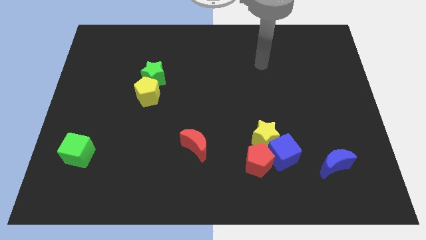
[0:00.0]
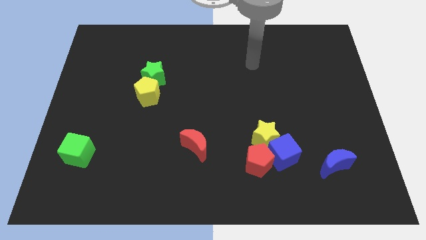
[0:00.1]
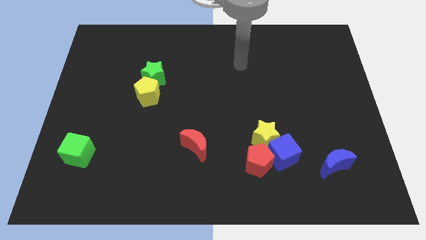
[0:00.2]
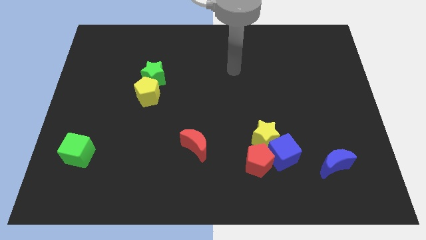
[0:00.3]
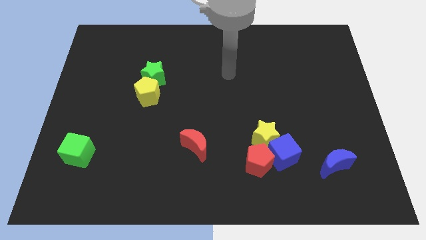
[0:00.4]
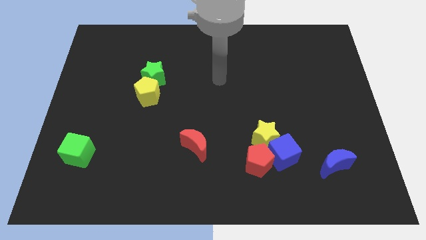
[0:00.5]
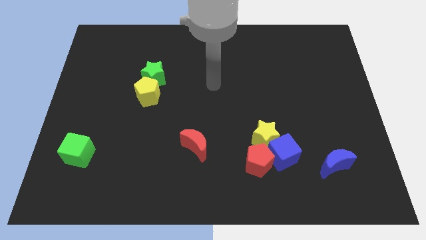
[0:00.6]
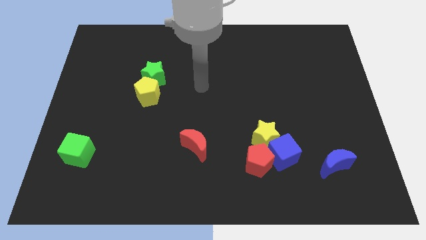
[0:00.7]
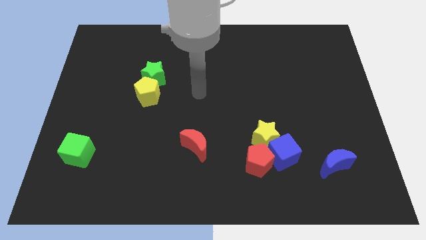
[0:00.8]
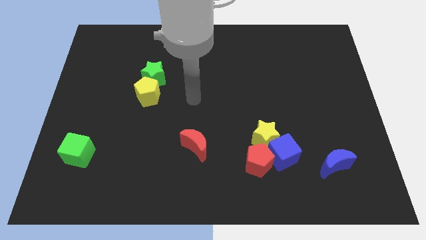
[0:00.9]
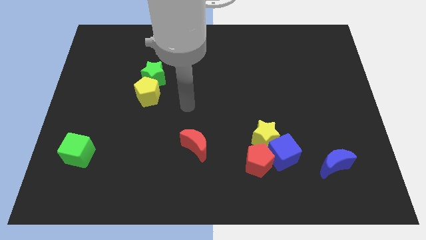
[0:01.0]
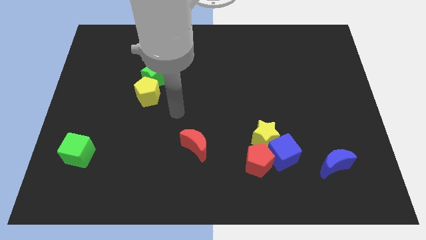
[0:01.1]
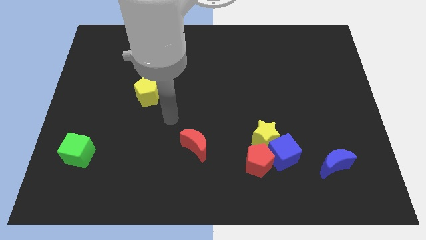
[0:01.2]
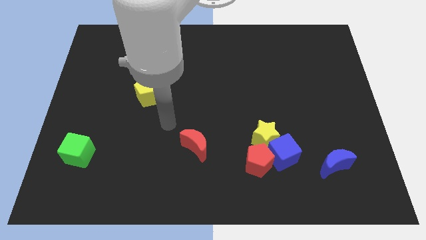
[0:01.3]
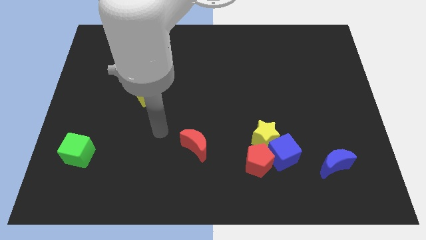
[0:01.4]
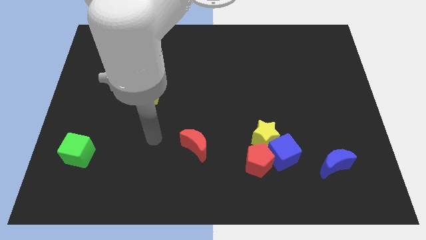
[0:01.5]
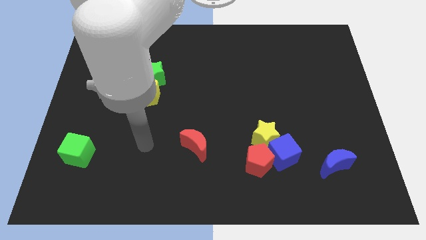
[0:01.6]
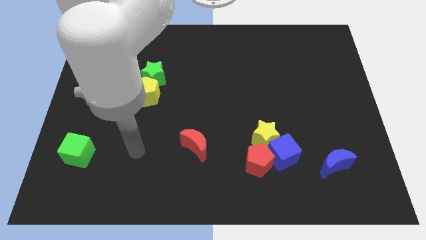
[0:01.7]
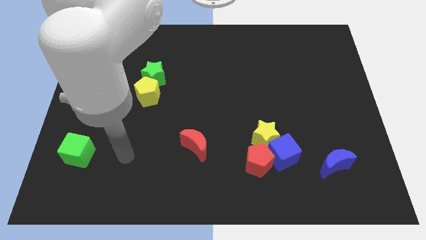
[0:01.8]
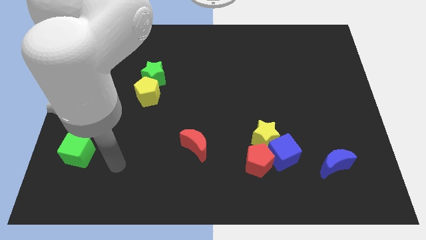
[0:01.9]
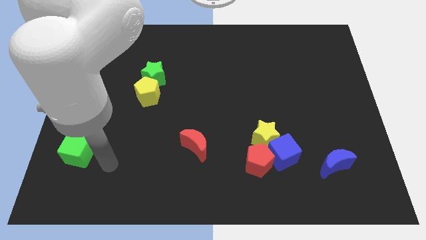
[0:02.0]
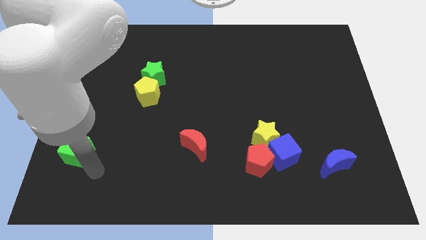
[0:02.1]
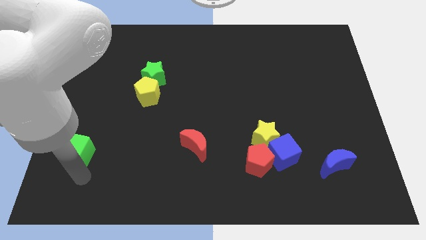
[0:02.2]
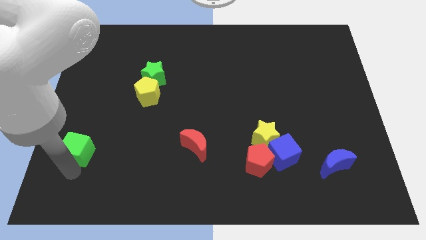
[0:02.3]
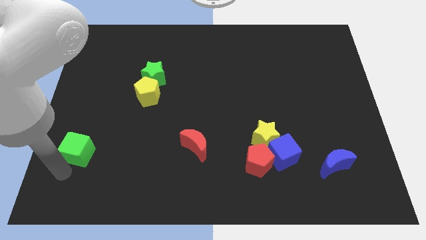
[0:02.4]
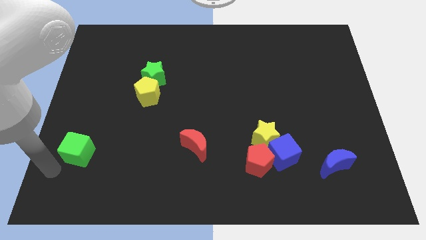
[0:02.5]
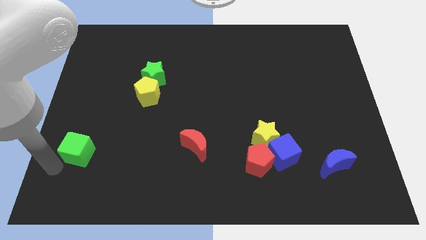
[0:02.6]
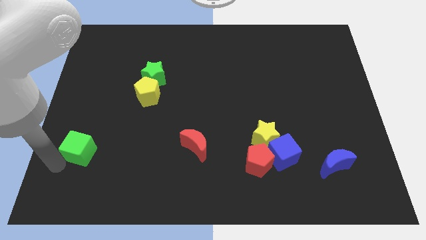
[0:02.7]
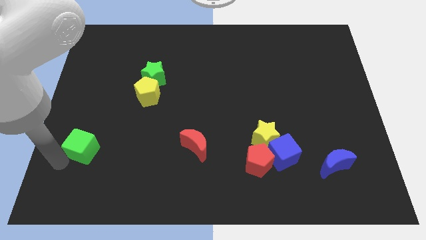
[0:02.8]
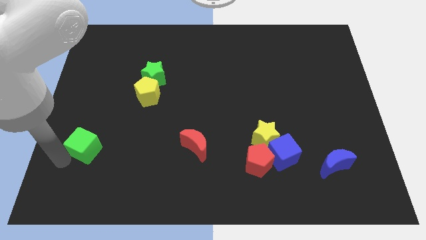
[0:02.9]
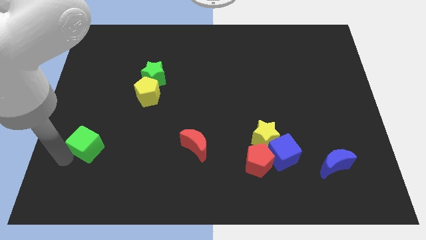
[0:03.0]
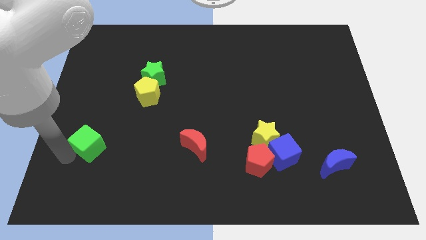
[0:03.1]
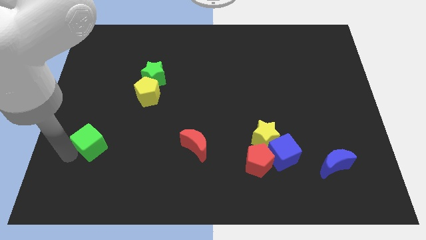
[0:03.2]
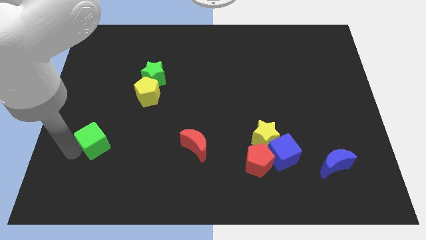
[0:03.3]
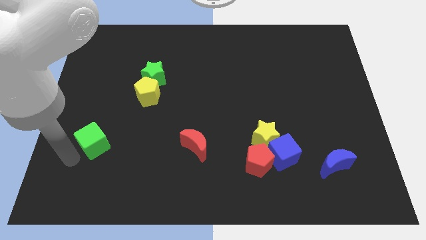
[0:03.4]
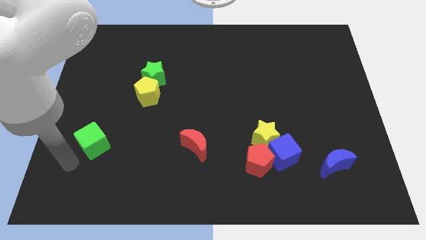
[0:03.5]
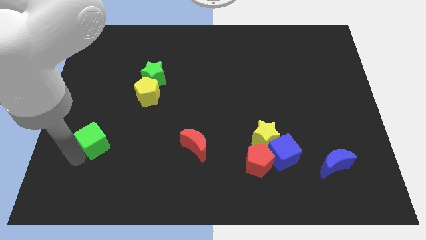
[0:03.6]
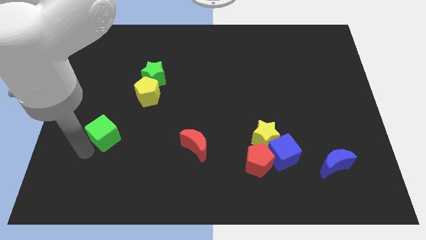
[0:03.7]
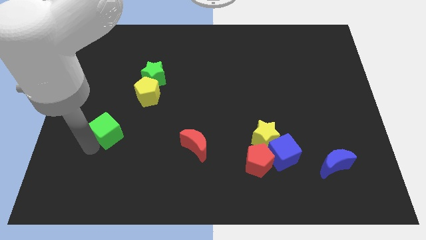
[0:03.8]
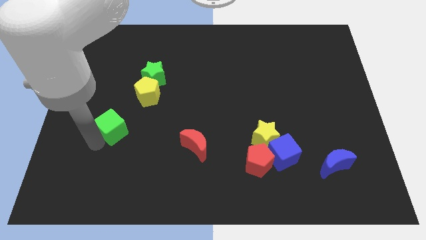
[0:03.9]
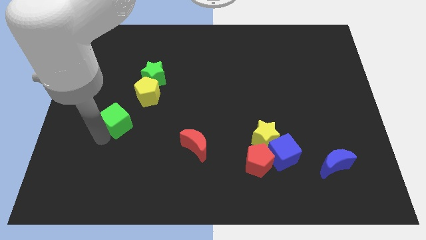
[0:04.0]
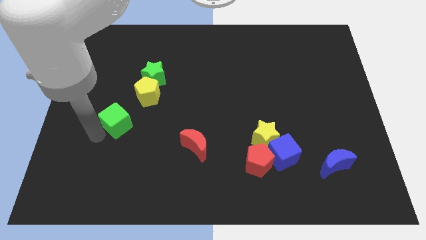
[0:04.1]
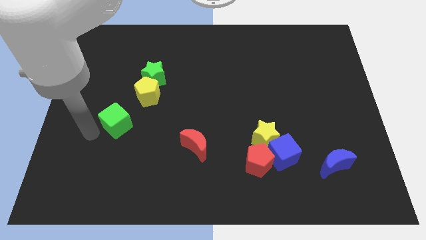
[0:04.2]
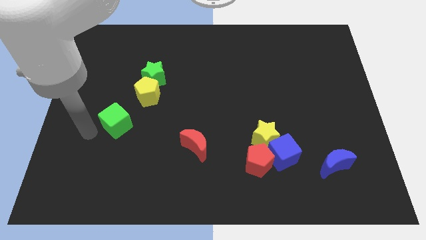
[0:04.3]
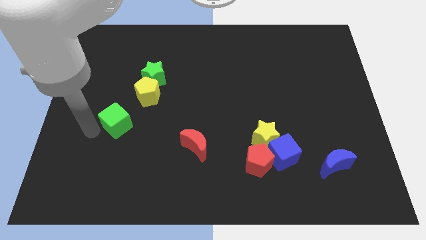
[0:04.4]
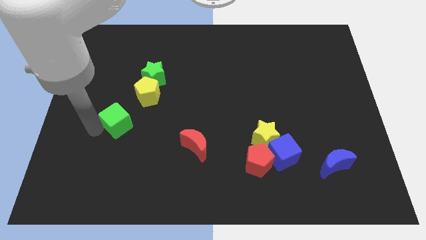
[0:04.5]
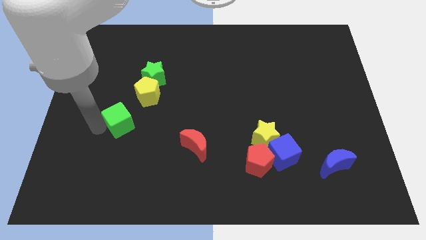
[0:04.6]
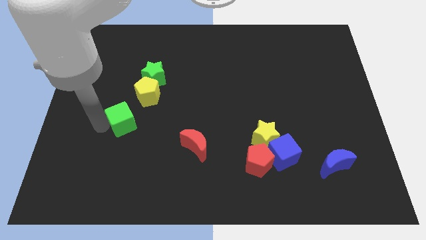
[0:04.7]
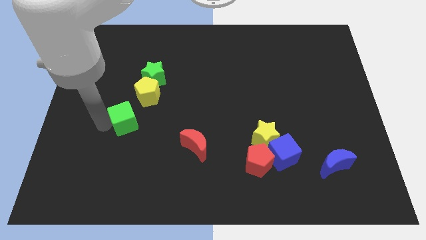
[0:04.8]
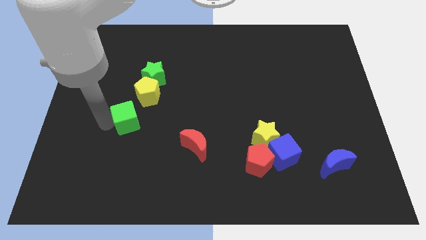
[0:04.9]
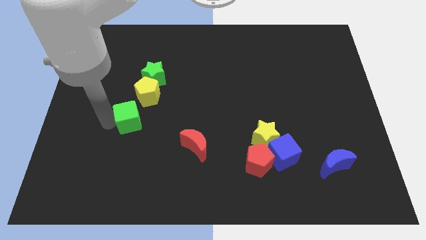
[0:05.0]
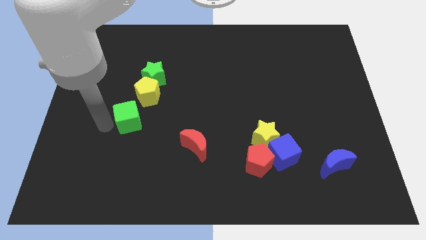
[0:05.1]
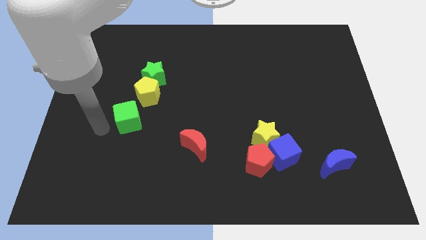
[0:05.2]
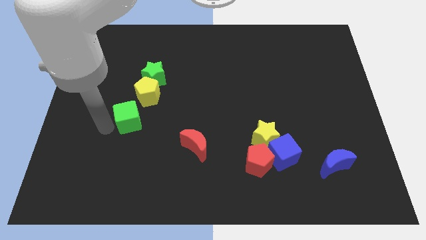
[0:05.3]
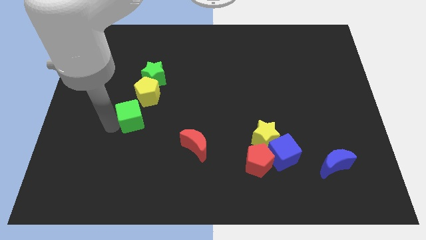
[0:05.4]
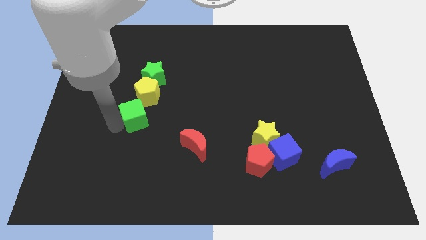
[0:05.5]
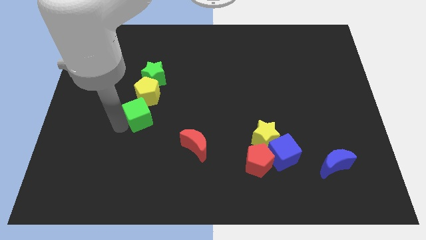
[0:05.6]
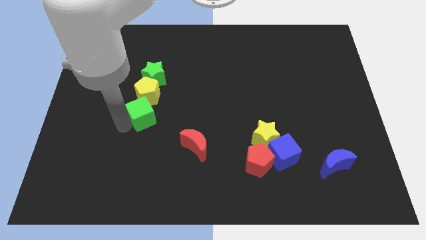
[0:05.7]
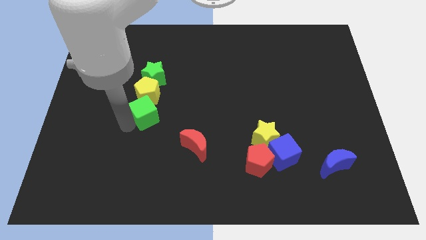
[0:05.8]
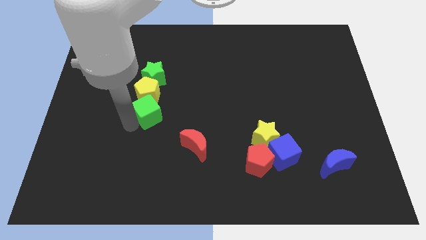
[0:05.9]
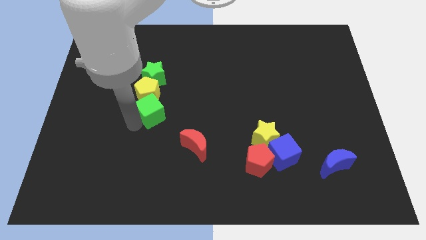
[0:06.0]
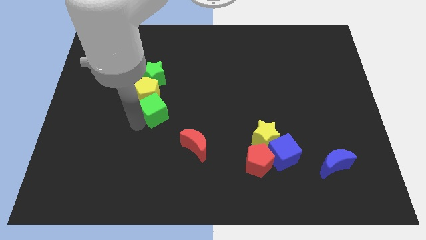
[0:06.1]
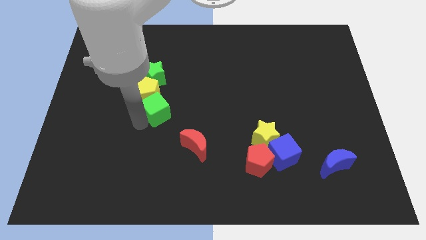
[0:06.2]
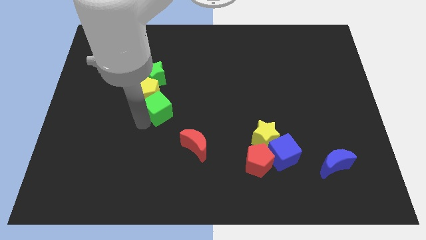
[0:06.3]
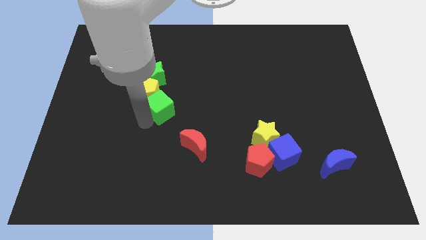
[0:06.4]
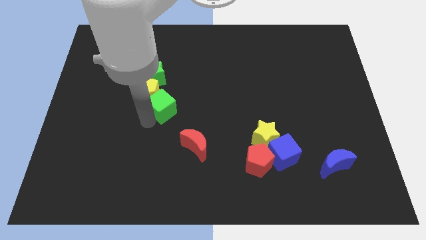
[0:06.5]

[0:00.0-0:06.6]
move the green cube upwards and then right

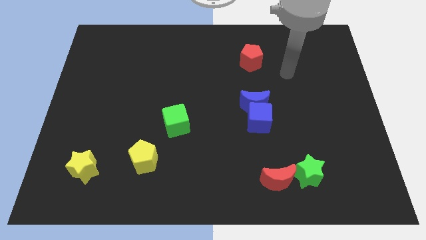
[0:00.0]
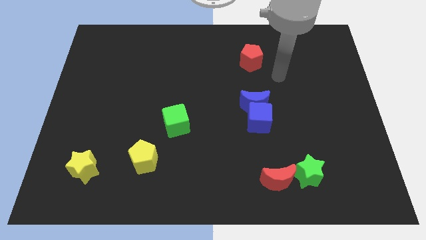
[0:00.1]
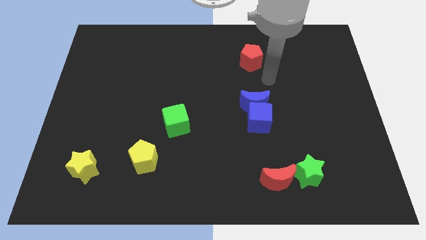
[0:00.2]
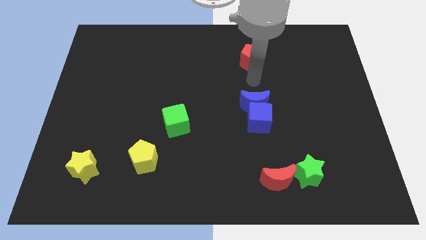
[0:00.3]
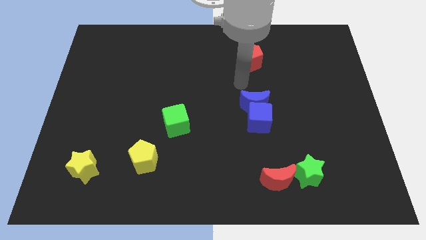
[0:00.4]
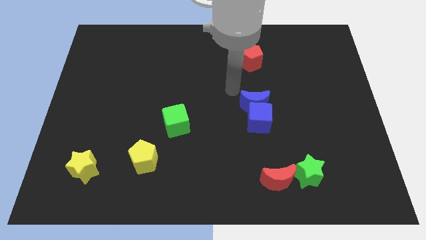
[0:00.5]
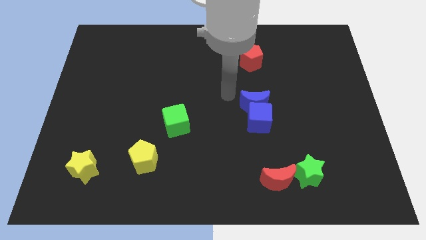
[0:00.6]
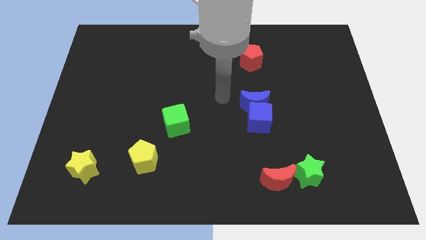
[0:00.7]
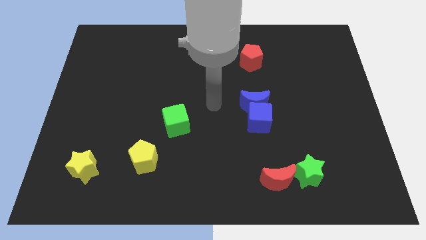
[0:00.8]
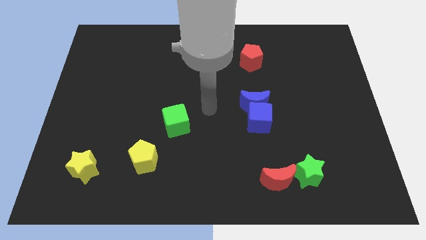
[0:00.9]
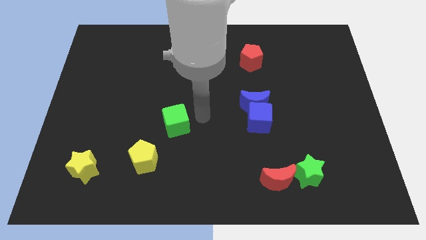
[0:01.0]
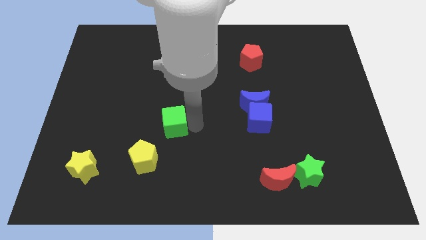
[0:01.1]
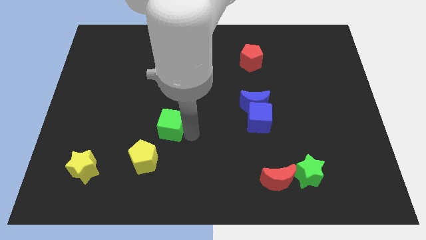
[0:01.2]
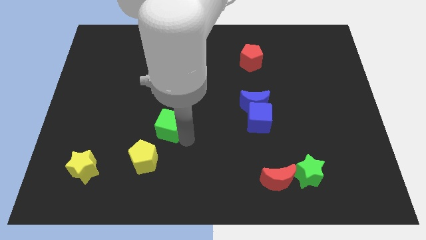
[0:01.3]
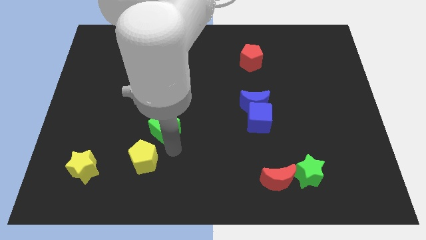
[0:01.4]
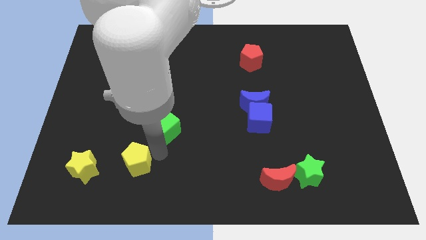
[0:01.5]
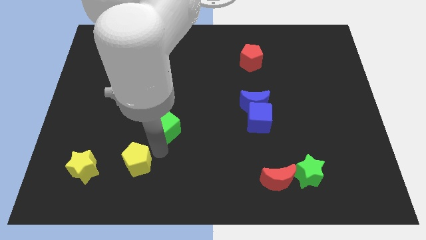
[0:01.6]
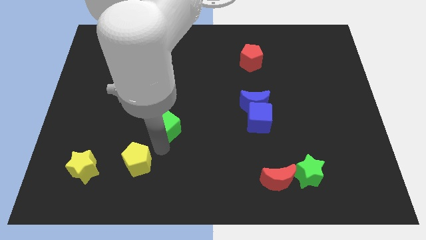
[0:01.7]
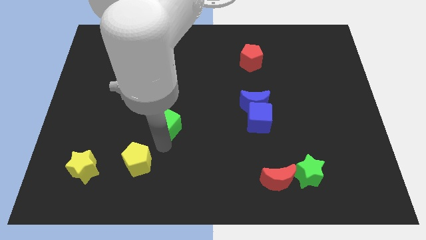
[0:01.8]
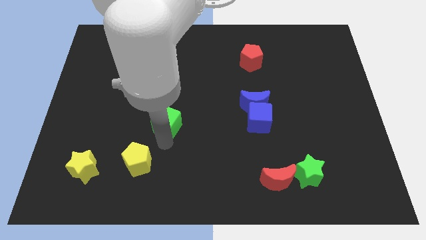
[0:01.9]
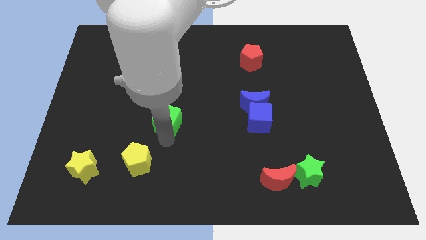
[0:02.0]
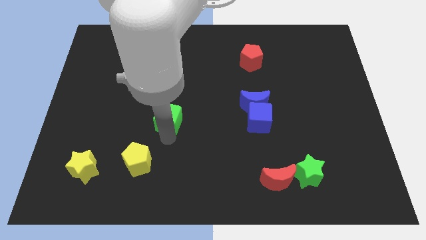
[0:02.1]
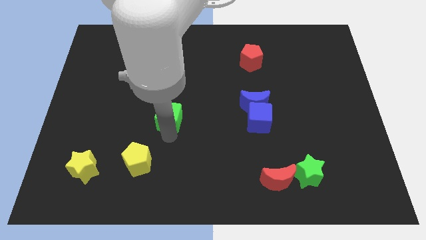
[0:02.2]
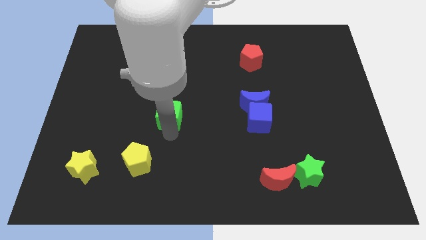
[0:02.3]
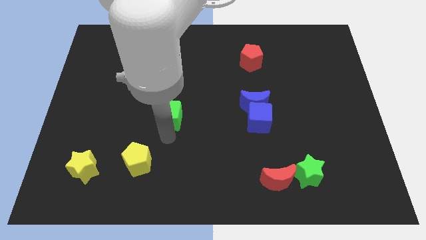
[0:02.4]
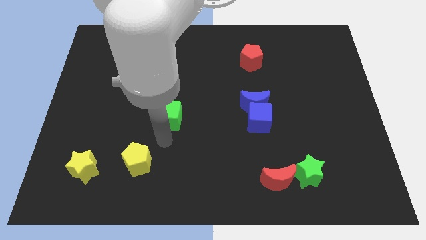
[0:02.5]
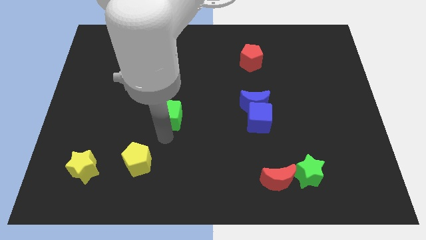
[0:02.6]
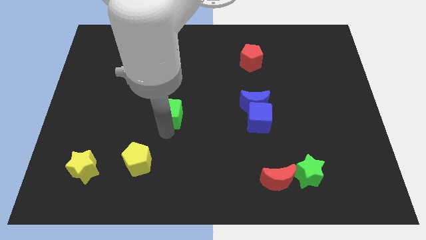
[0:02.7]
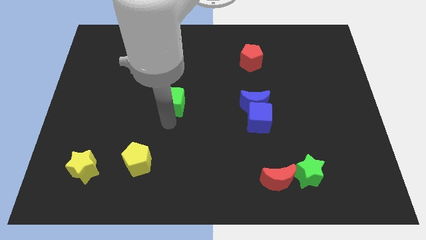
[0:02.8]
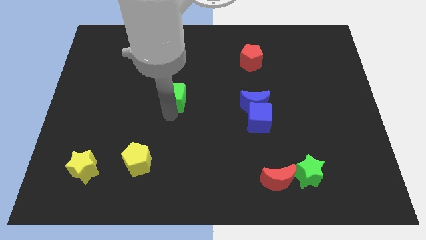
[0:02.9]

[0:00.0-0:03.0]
slightly slide the green cube upwards
